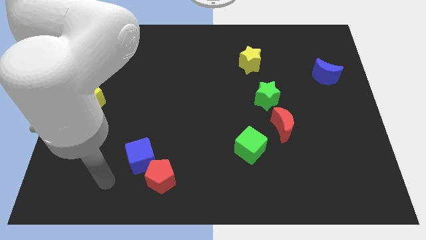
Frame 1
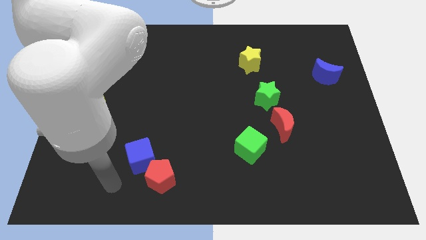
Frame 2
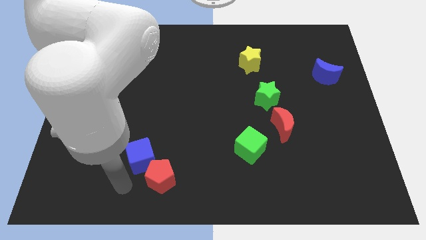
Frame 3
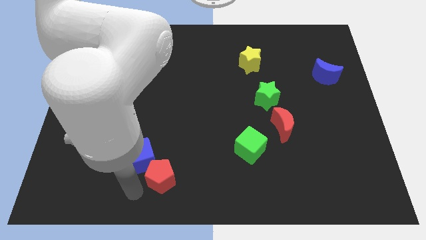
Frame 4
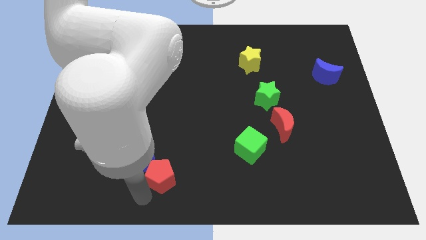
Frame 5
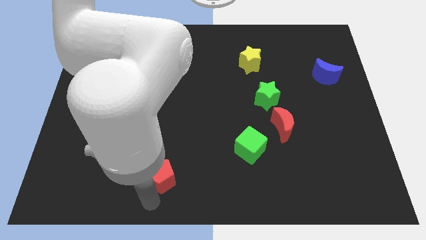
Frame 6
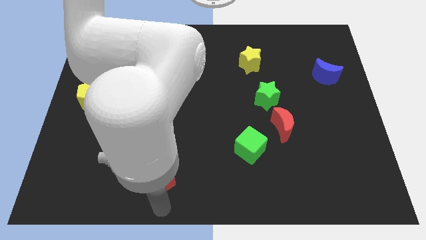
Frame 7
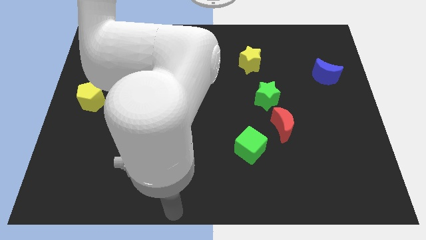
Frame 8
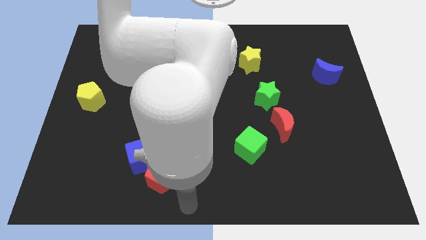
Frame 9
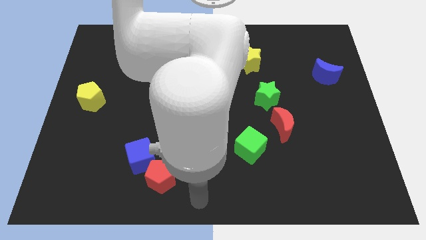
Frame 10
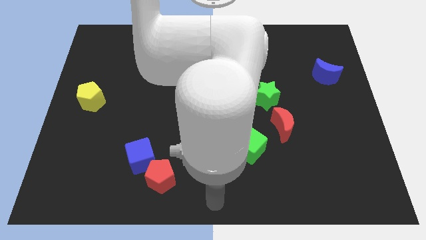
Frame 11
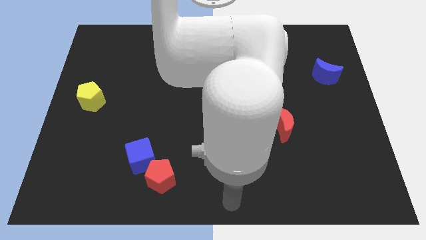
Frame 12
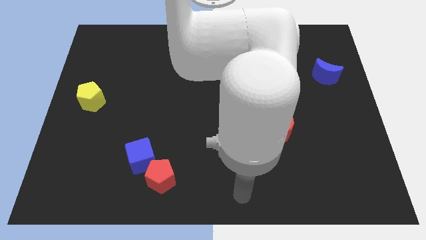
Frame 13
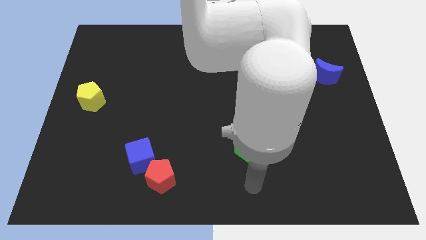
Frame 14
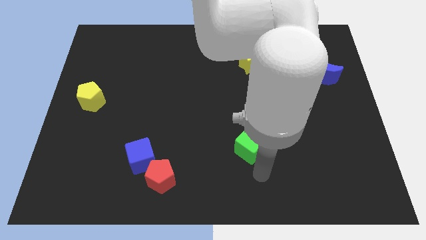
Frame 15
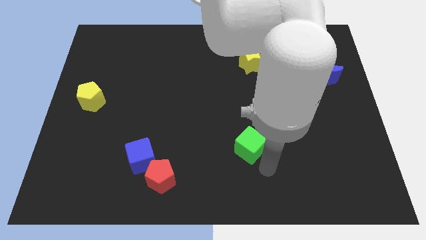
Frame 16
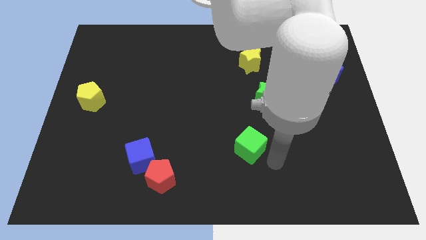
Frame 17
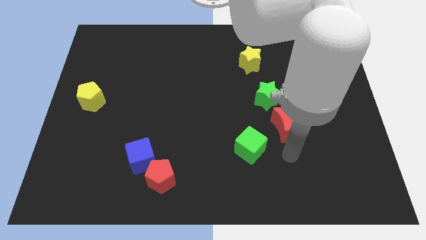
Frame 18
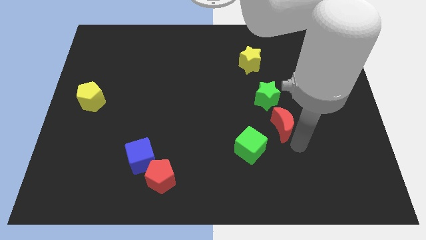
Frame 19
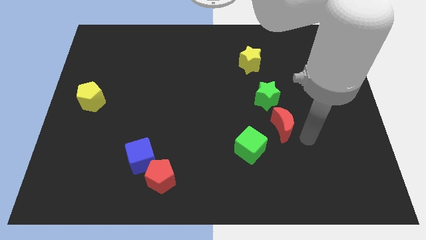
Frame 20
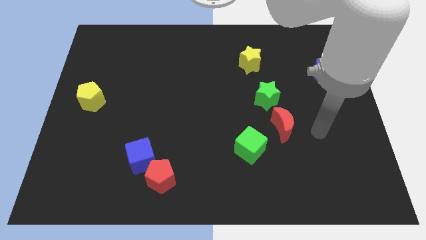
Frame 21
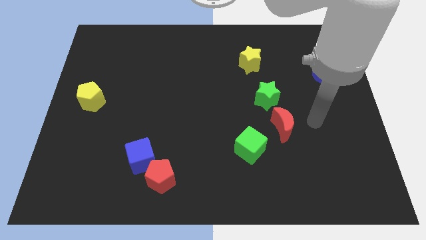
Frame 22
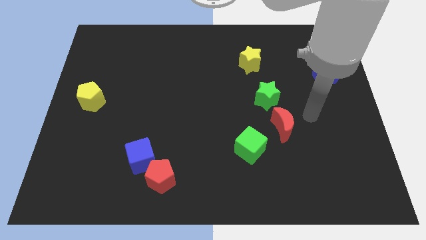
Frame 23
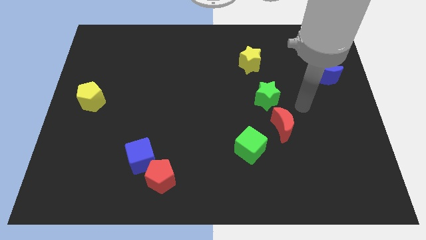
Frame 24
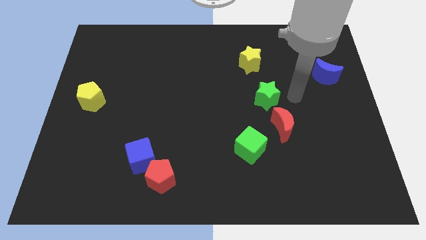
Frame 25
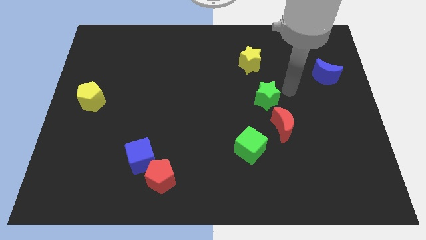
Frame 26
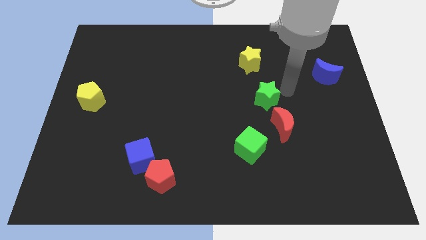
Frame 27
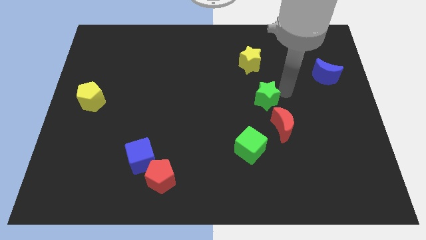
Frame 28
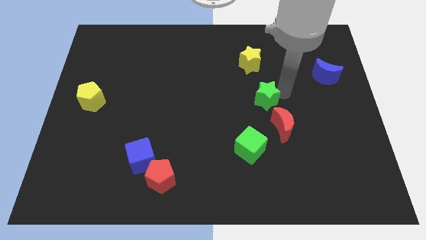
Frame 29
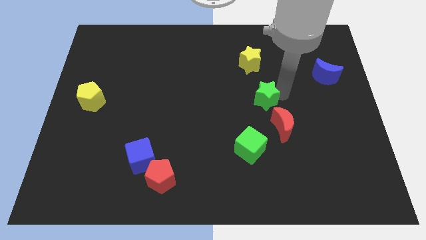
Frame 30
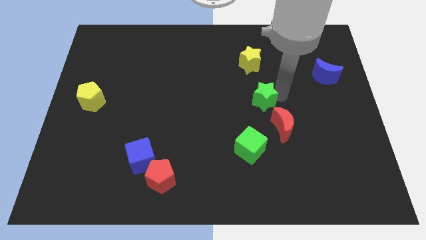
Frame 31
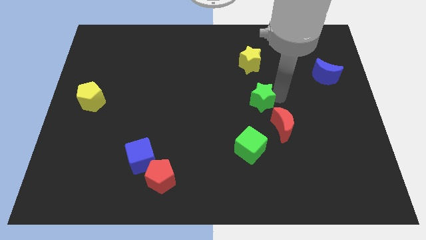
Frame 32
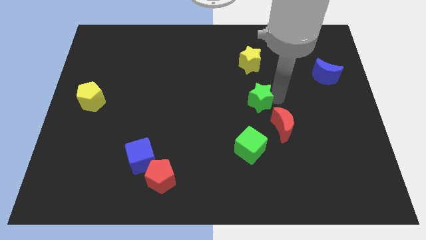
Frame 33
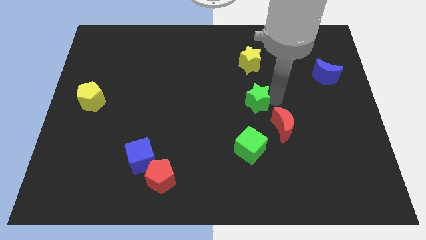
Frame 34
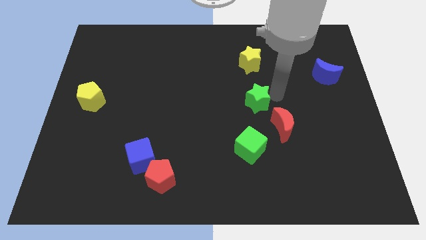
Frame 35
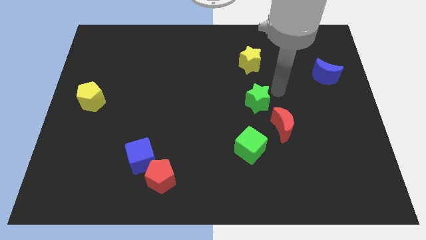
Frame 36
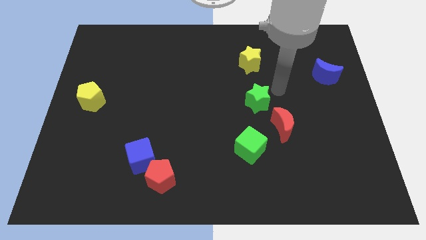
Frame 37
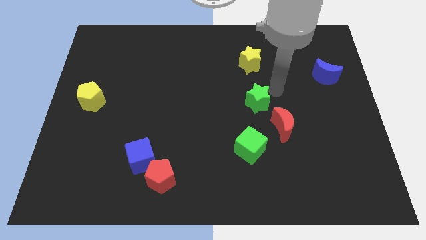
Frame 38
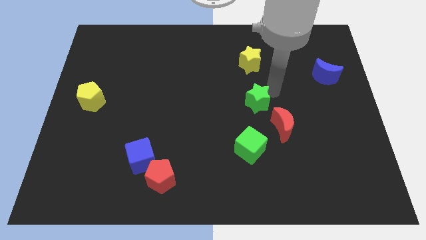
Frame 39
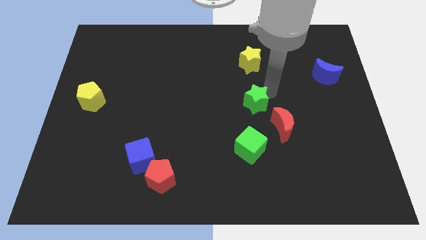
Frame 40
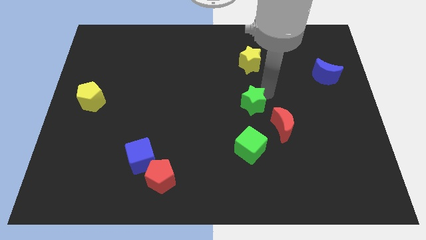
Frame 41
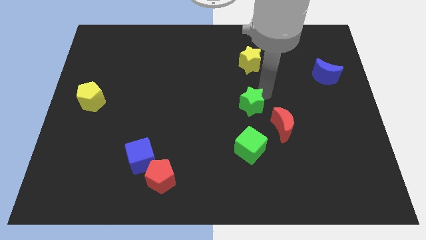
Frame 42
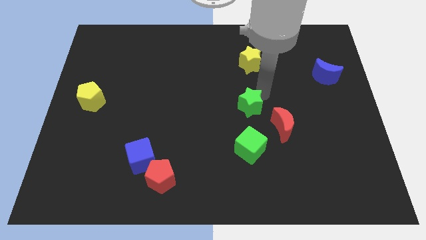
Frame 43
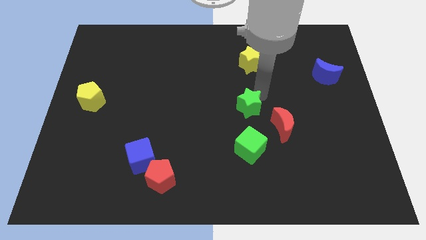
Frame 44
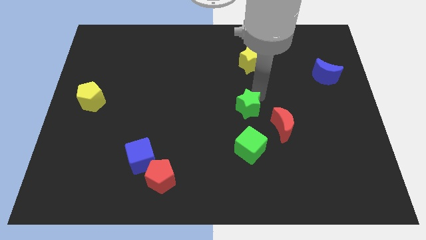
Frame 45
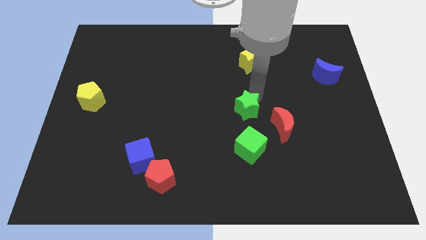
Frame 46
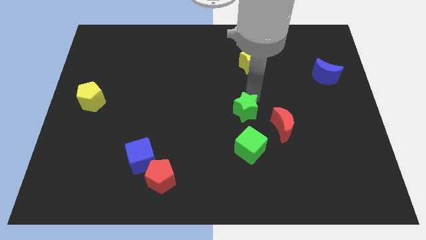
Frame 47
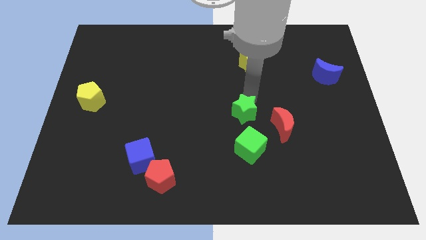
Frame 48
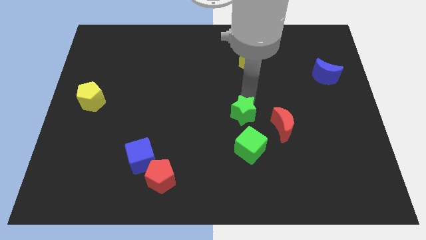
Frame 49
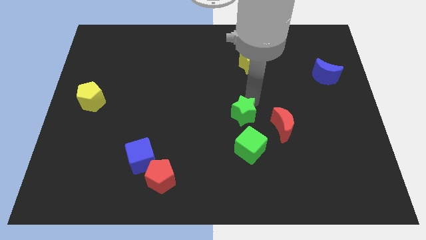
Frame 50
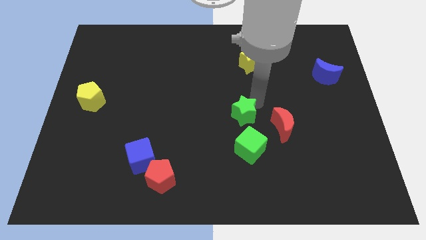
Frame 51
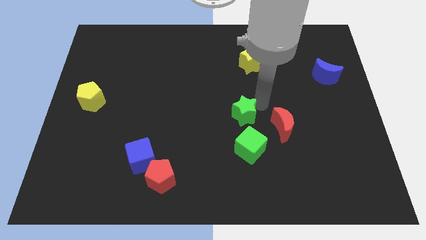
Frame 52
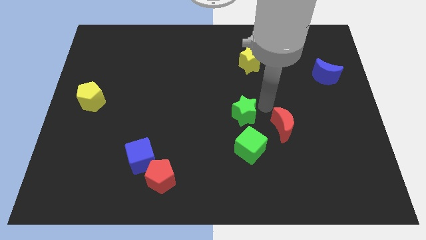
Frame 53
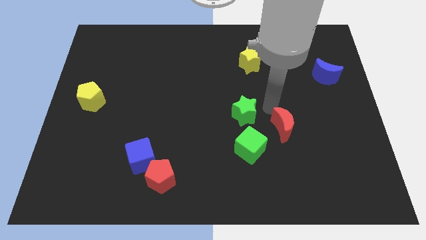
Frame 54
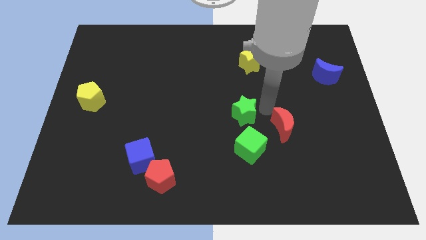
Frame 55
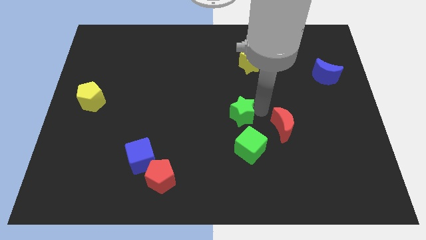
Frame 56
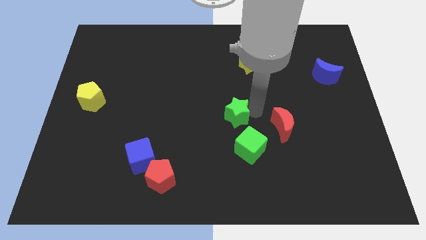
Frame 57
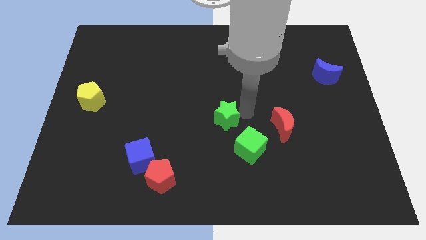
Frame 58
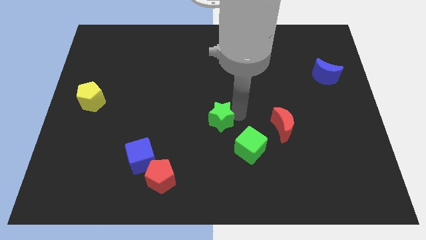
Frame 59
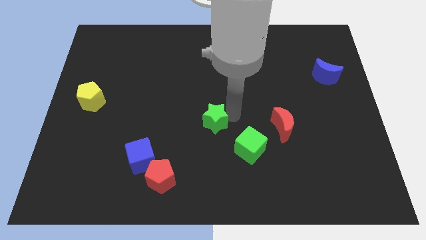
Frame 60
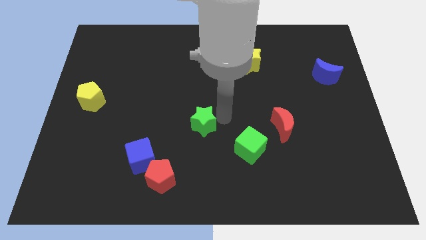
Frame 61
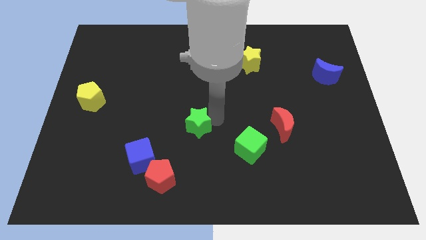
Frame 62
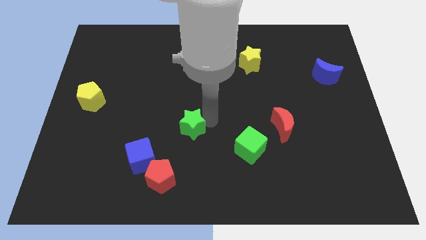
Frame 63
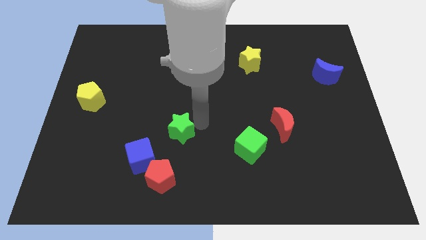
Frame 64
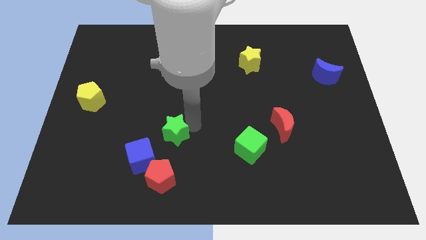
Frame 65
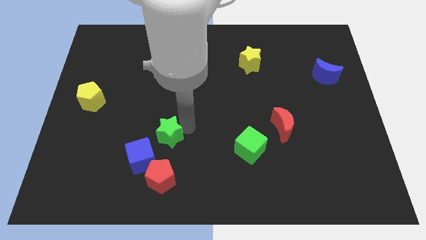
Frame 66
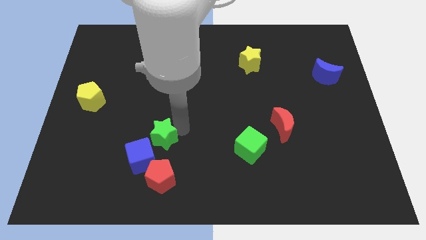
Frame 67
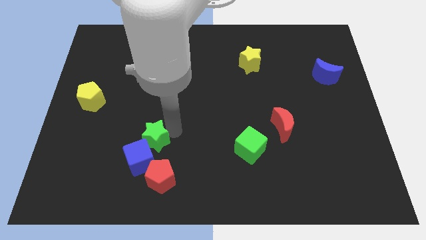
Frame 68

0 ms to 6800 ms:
move the green star close to the blue cube

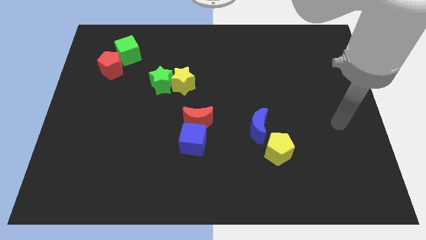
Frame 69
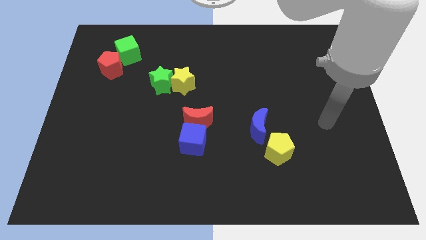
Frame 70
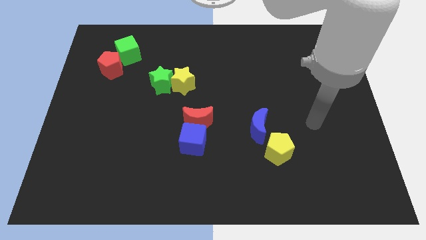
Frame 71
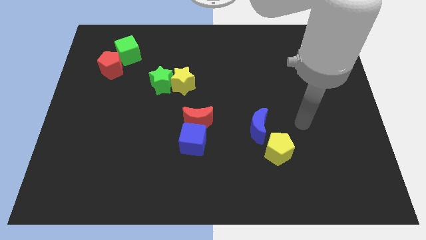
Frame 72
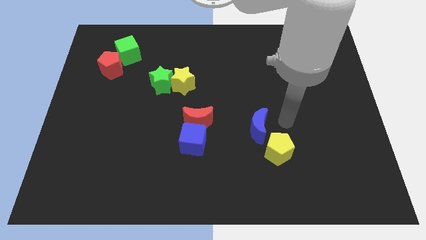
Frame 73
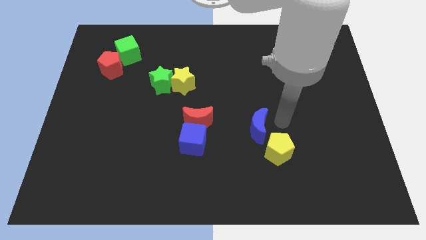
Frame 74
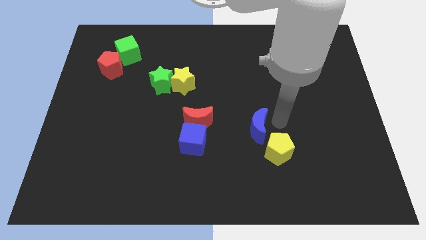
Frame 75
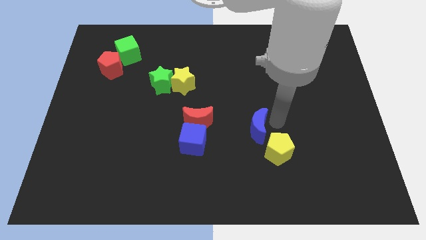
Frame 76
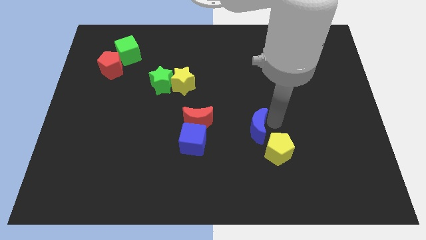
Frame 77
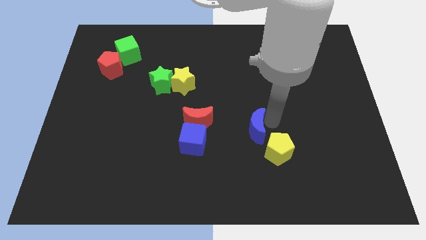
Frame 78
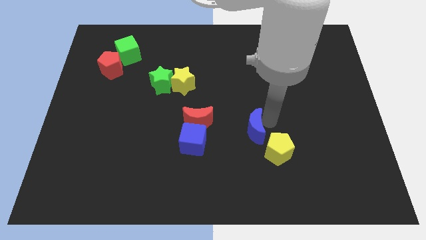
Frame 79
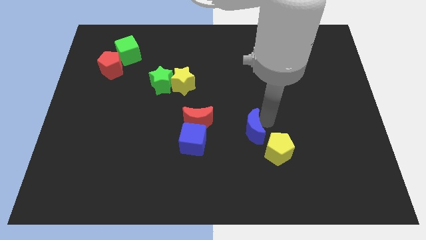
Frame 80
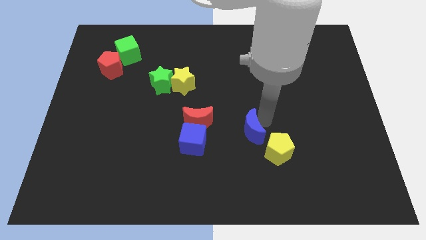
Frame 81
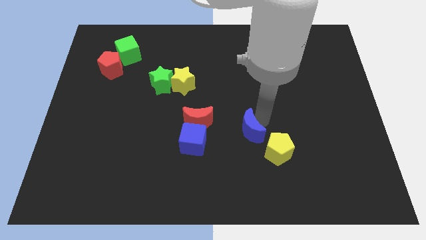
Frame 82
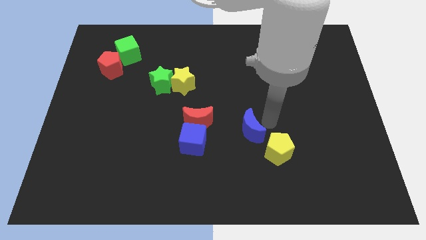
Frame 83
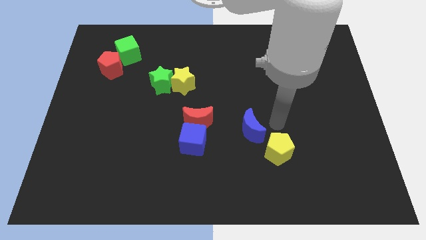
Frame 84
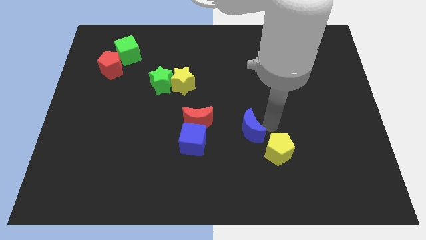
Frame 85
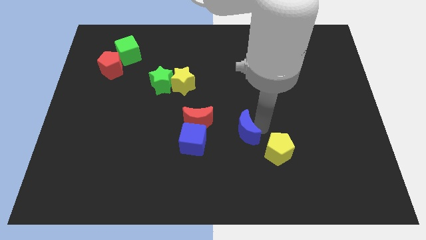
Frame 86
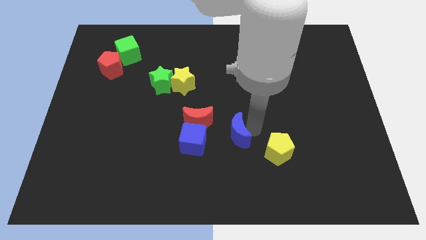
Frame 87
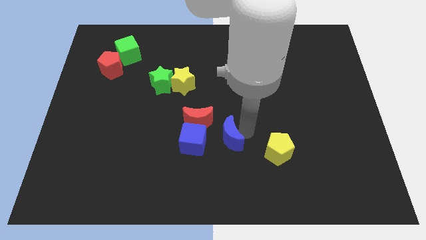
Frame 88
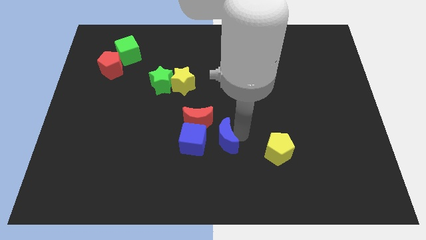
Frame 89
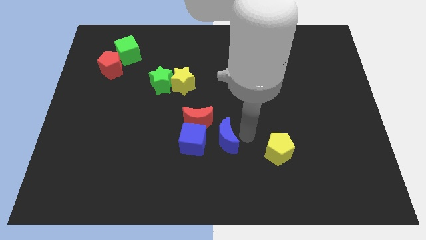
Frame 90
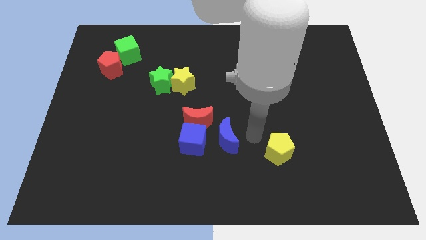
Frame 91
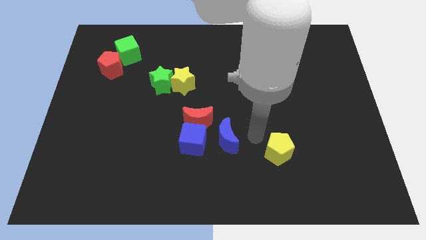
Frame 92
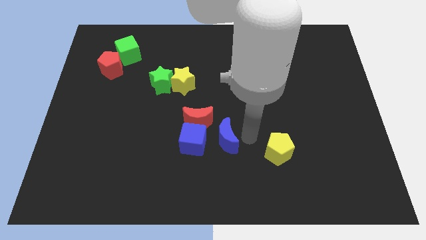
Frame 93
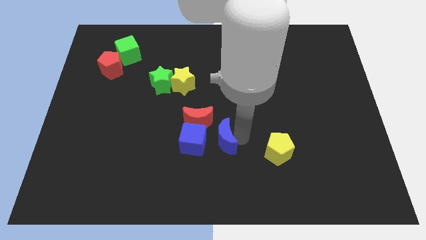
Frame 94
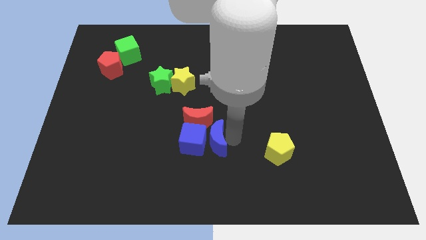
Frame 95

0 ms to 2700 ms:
put the blue moon to the blue cube
